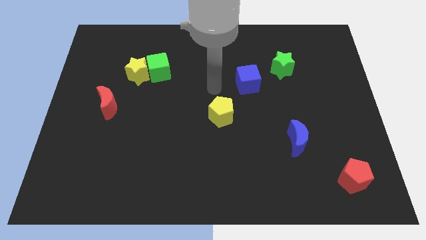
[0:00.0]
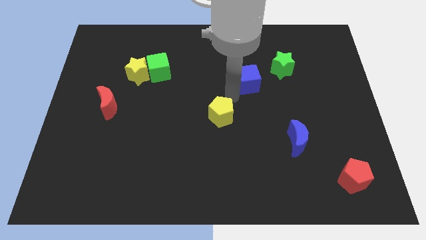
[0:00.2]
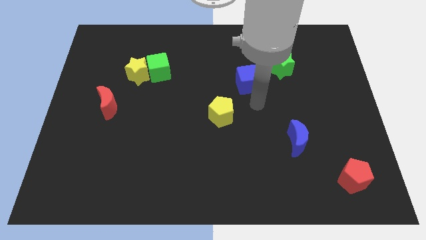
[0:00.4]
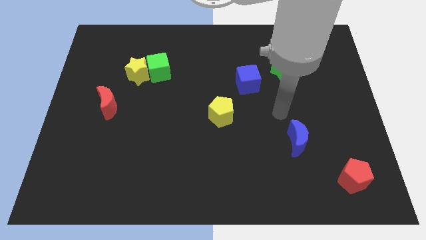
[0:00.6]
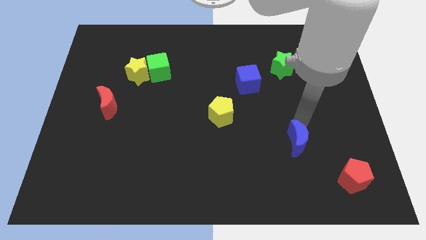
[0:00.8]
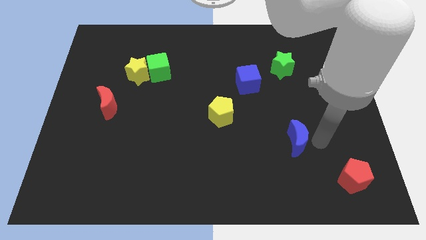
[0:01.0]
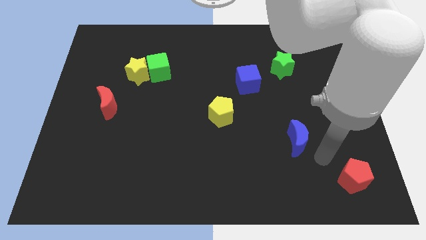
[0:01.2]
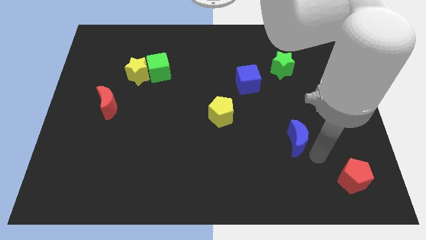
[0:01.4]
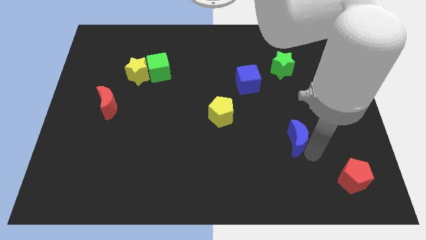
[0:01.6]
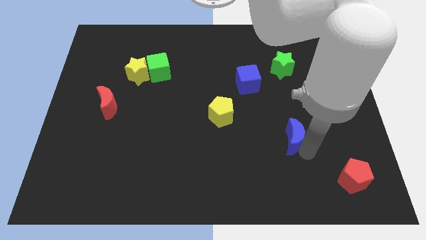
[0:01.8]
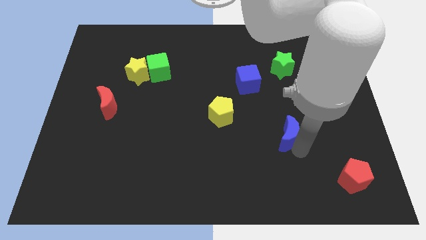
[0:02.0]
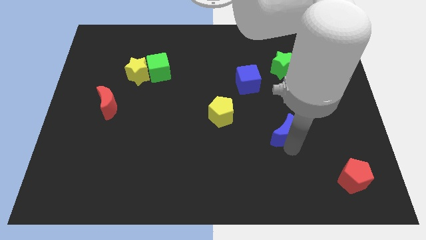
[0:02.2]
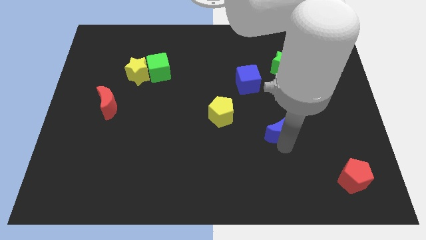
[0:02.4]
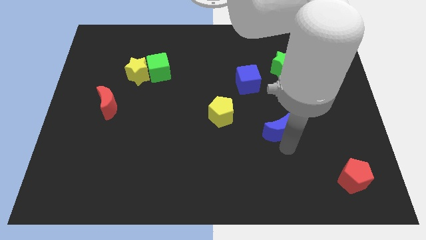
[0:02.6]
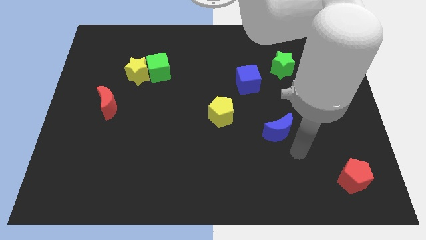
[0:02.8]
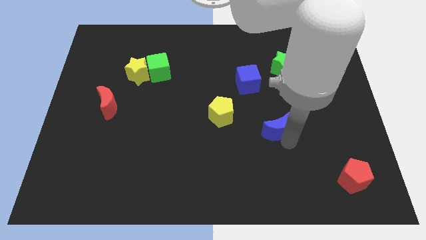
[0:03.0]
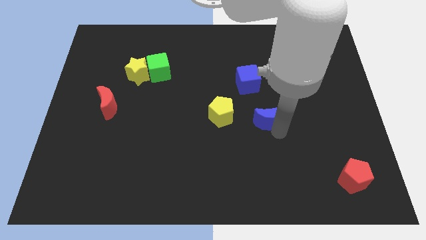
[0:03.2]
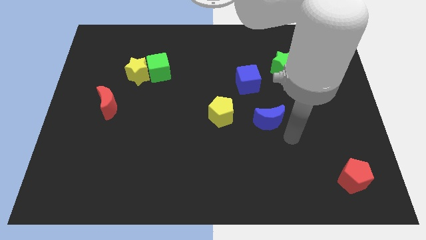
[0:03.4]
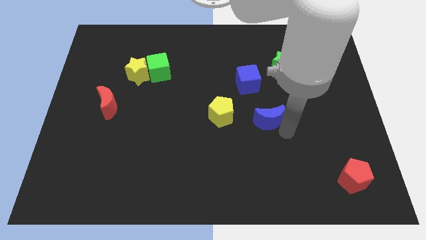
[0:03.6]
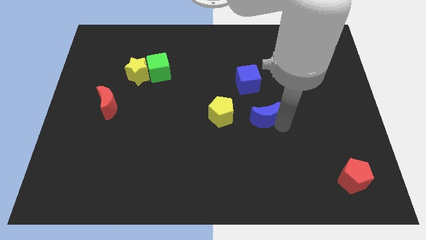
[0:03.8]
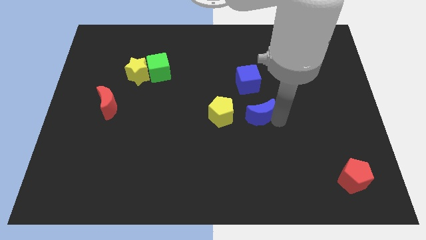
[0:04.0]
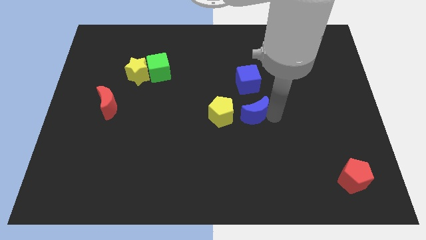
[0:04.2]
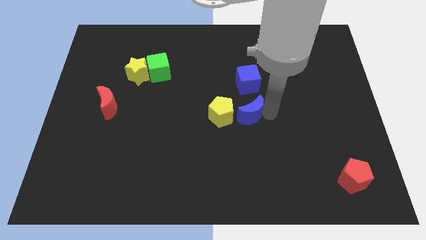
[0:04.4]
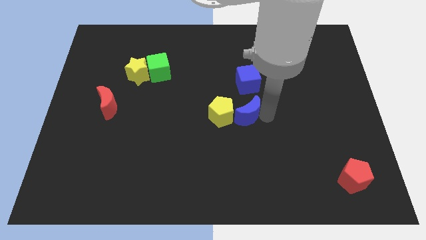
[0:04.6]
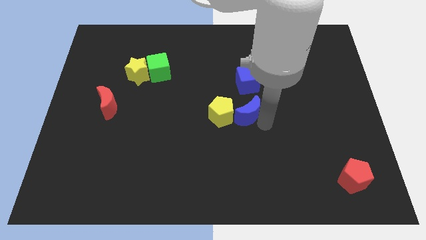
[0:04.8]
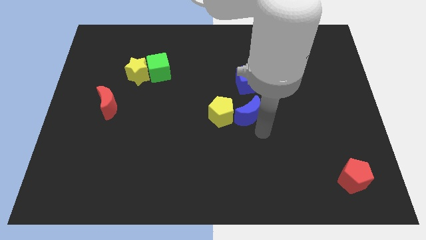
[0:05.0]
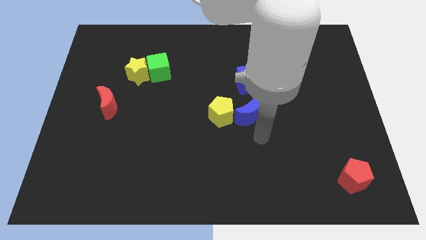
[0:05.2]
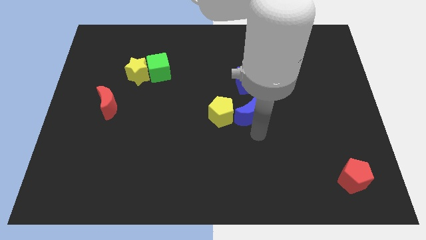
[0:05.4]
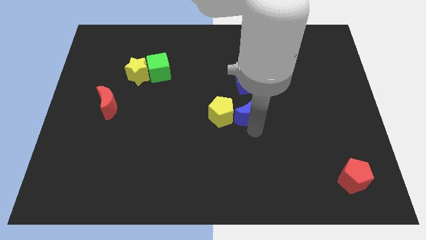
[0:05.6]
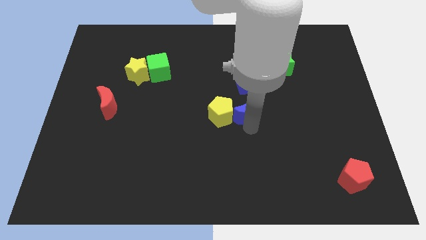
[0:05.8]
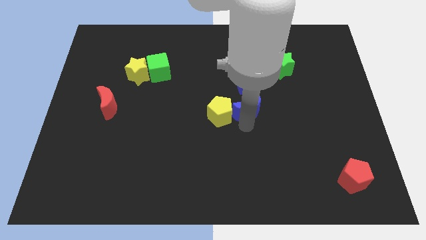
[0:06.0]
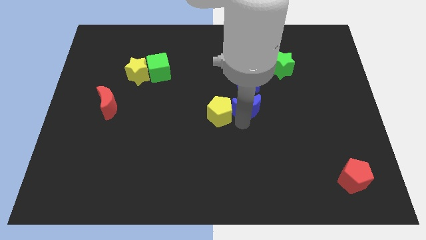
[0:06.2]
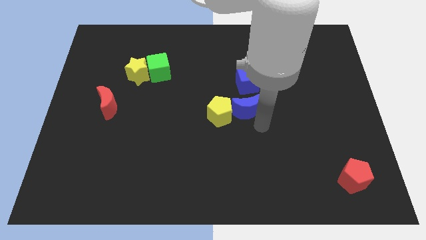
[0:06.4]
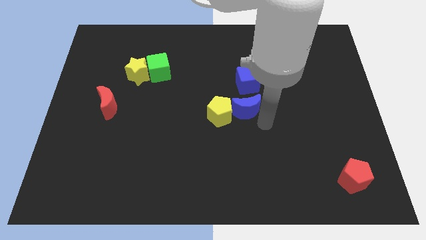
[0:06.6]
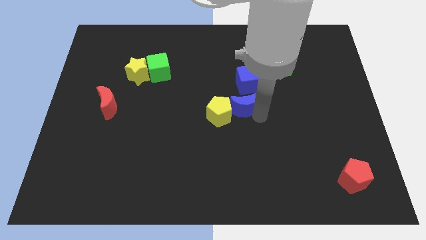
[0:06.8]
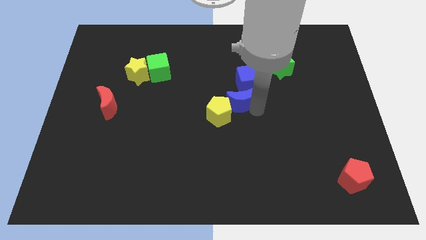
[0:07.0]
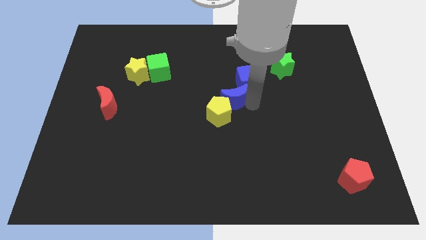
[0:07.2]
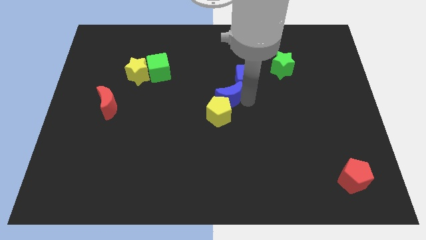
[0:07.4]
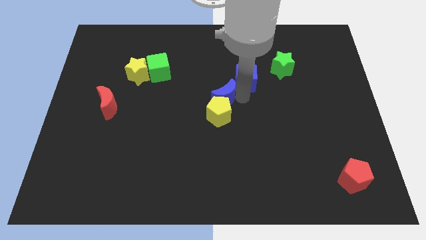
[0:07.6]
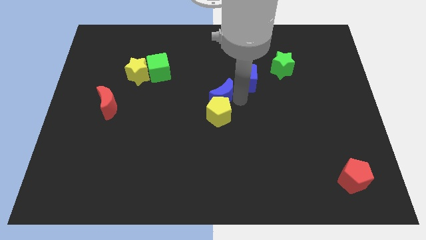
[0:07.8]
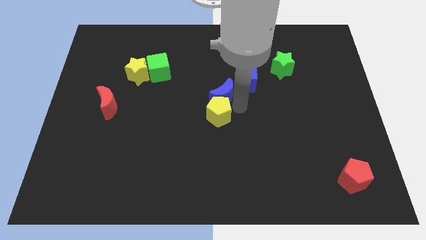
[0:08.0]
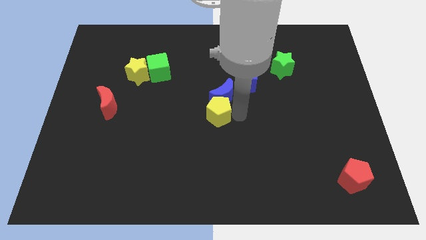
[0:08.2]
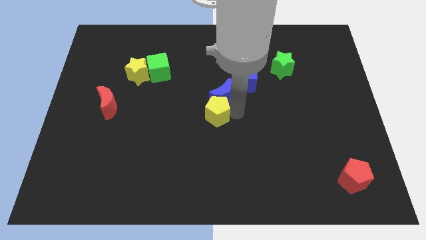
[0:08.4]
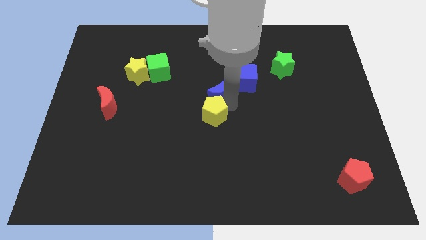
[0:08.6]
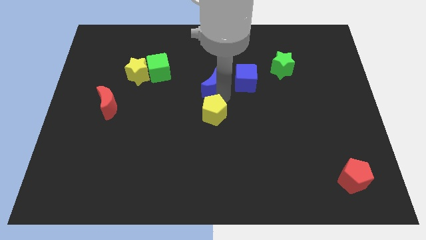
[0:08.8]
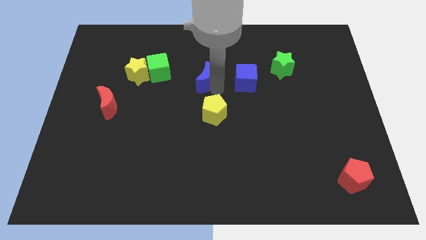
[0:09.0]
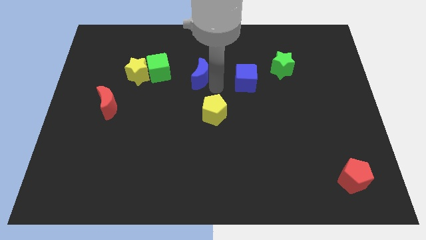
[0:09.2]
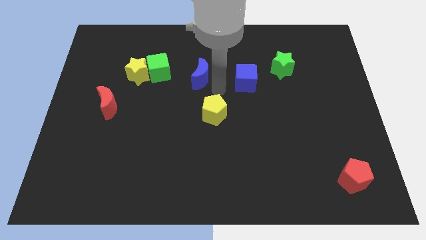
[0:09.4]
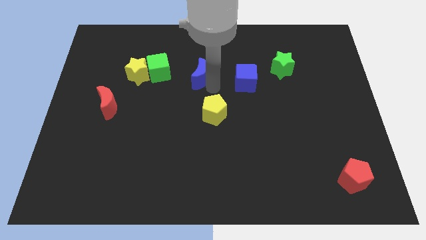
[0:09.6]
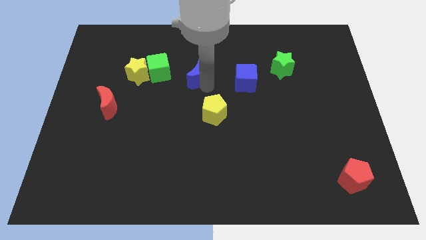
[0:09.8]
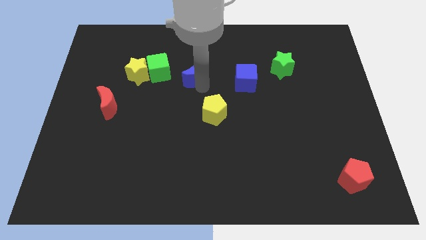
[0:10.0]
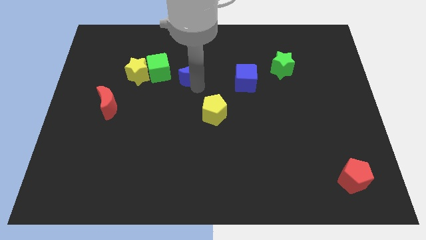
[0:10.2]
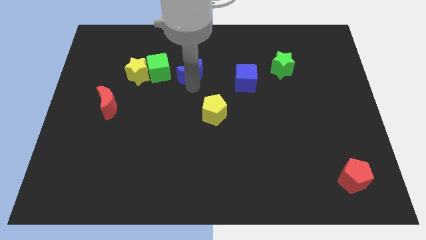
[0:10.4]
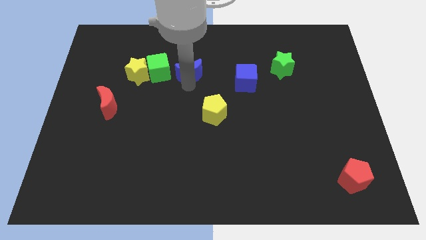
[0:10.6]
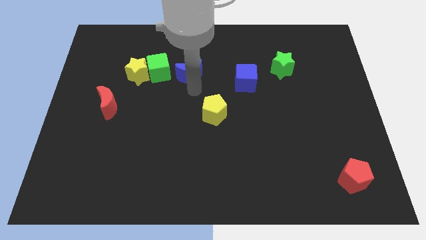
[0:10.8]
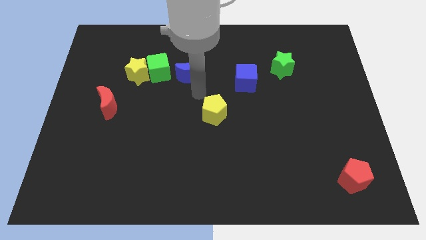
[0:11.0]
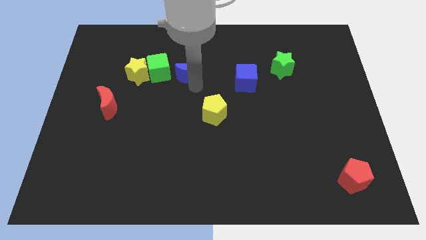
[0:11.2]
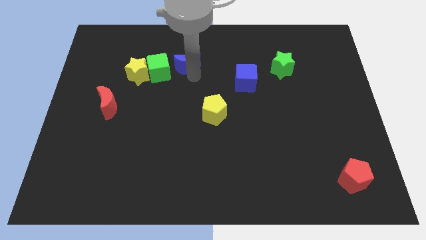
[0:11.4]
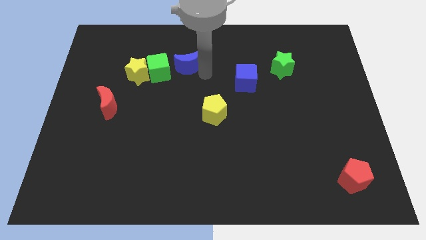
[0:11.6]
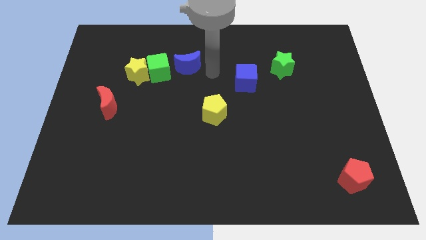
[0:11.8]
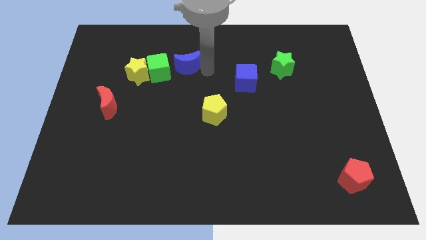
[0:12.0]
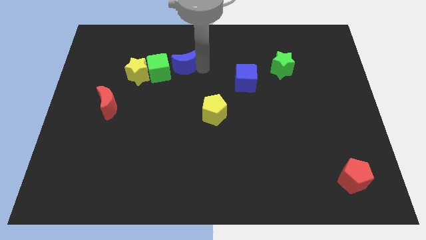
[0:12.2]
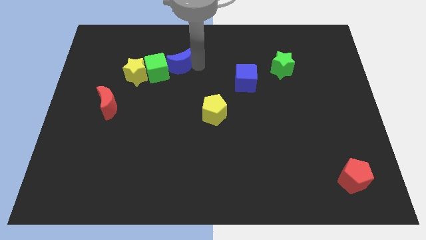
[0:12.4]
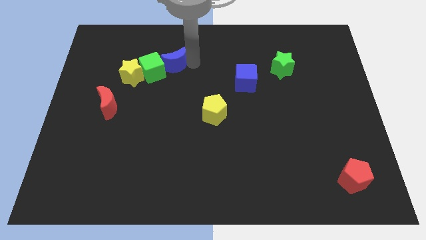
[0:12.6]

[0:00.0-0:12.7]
slide the blue moon diagonally up and to the right of the yellow star

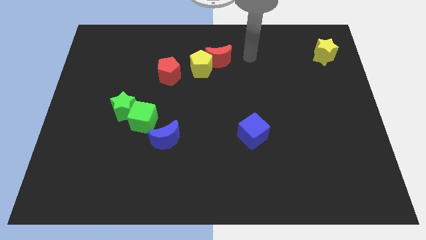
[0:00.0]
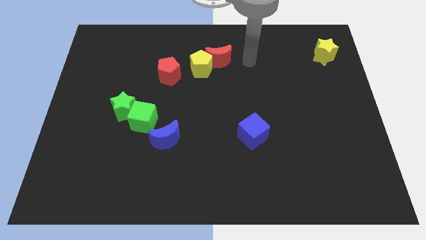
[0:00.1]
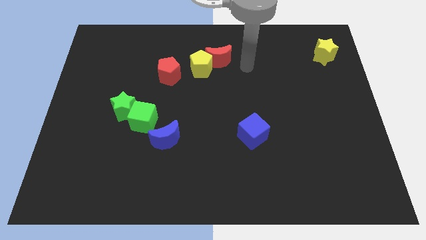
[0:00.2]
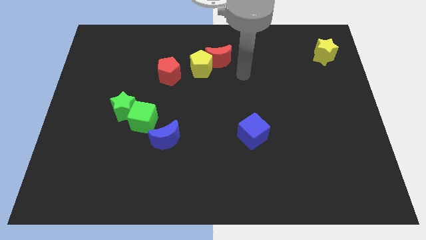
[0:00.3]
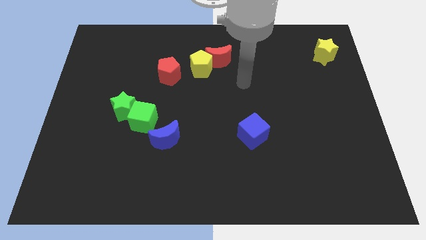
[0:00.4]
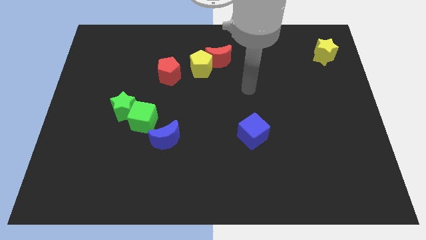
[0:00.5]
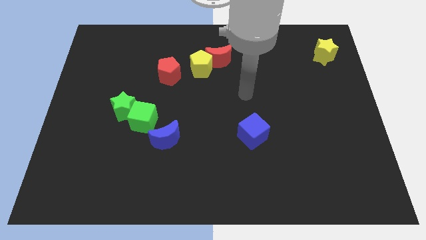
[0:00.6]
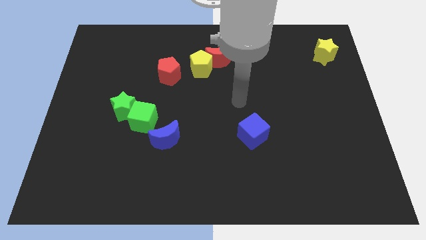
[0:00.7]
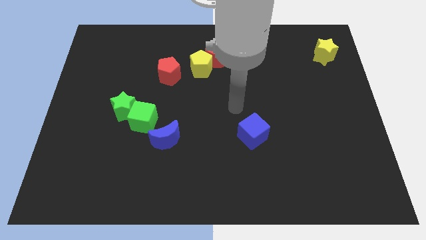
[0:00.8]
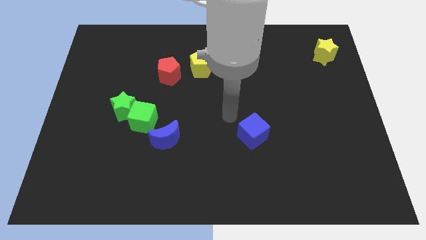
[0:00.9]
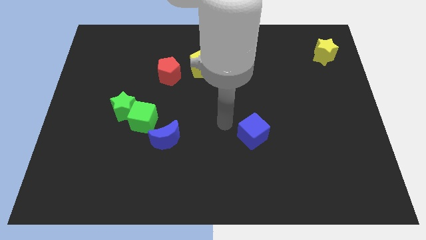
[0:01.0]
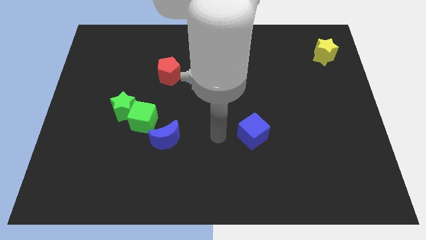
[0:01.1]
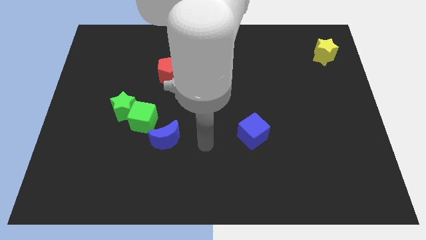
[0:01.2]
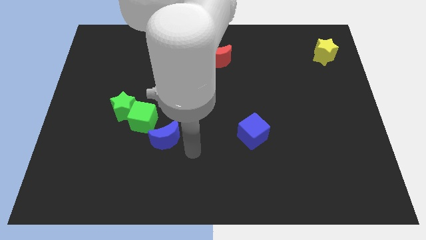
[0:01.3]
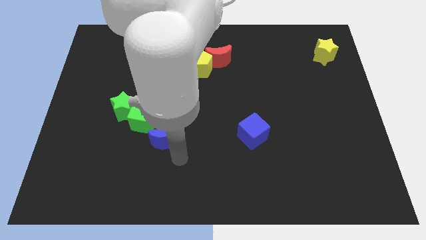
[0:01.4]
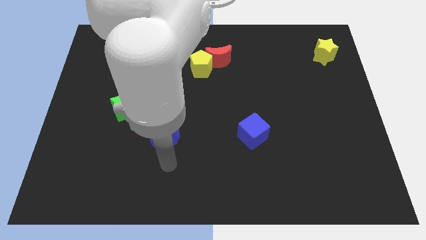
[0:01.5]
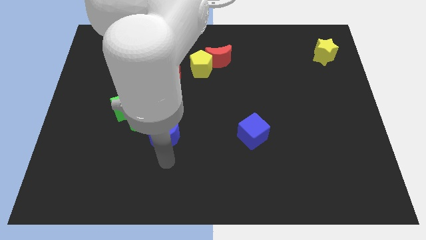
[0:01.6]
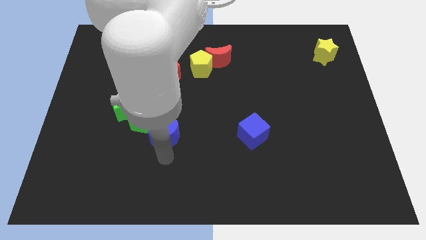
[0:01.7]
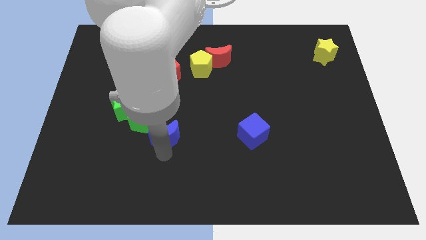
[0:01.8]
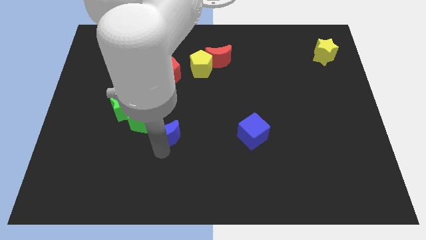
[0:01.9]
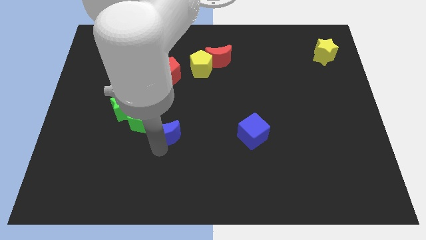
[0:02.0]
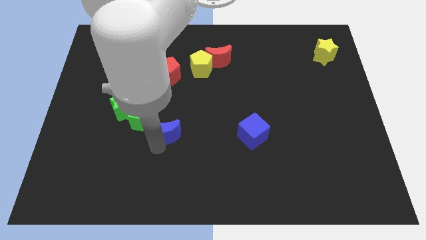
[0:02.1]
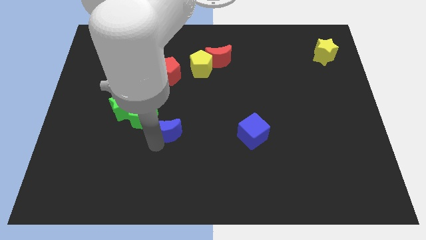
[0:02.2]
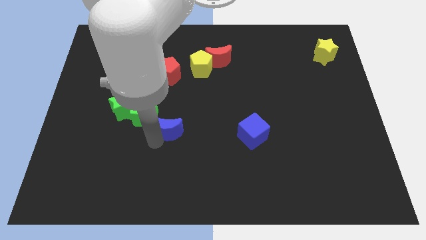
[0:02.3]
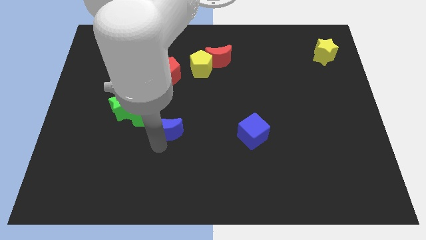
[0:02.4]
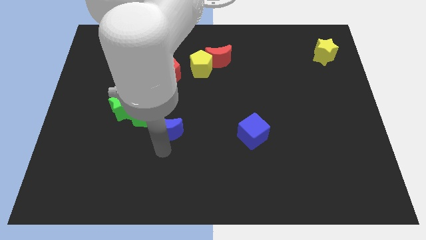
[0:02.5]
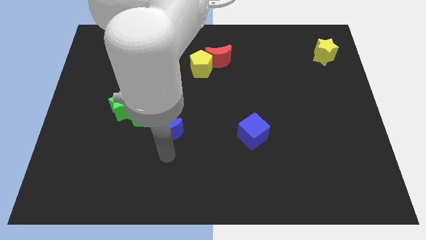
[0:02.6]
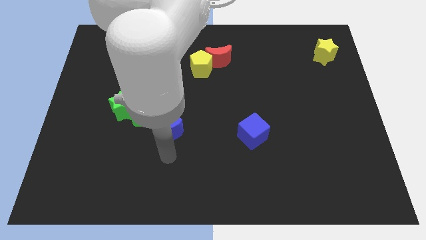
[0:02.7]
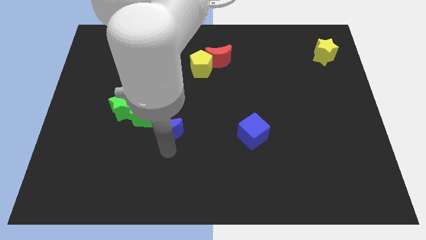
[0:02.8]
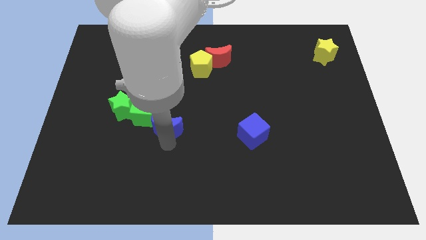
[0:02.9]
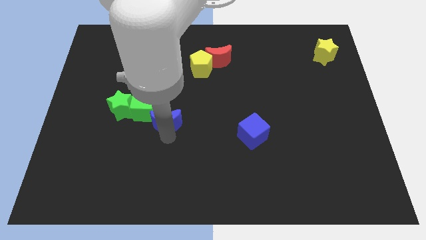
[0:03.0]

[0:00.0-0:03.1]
slide the blue moon to the bottom of the red pentagon
